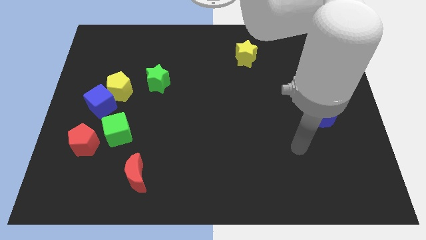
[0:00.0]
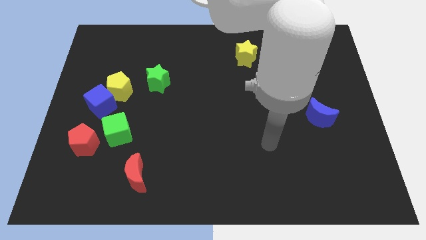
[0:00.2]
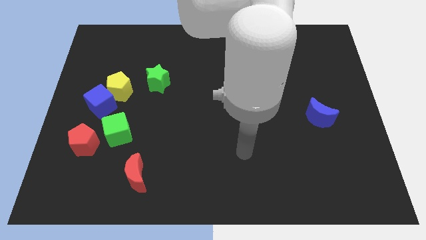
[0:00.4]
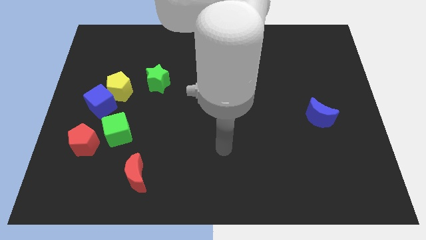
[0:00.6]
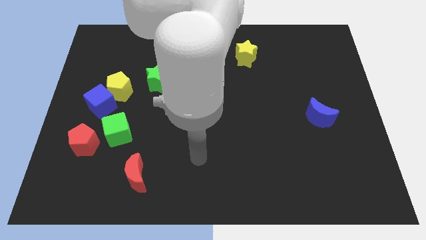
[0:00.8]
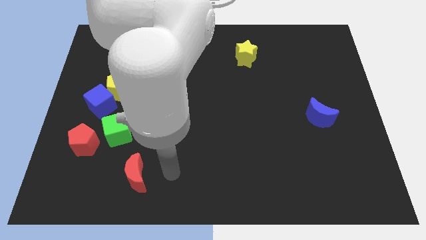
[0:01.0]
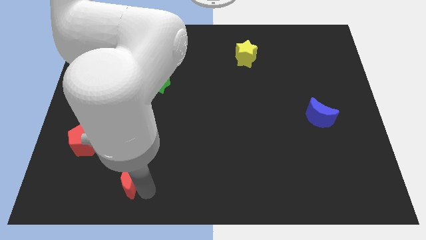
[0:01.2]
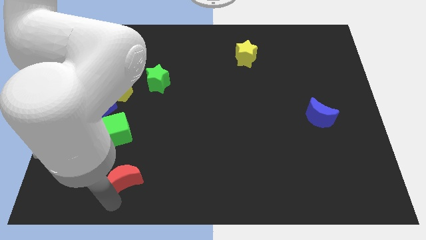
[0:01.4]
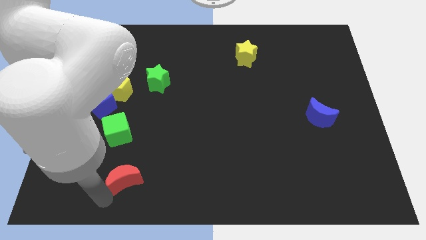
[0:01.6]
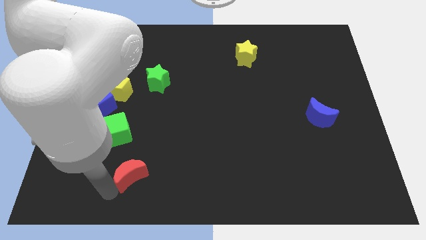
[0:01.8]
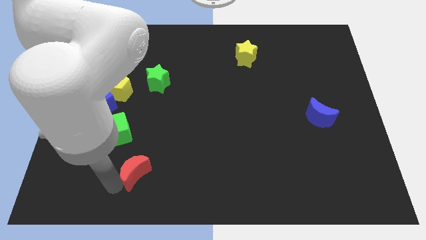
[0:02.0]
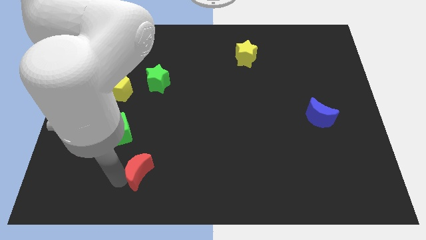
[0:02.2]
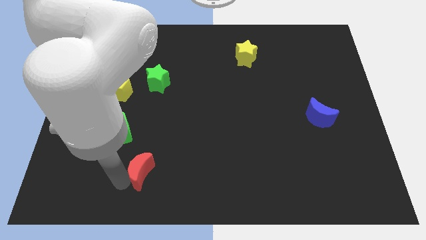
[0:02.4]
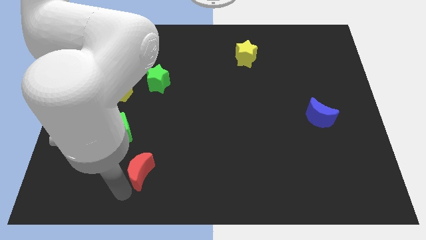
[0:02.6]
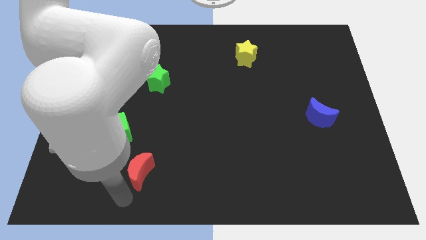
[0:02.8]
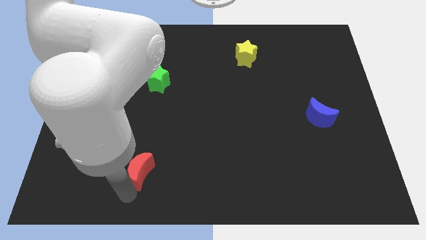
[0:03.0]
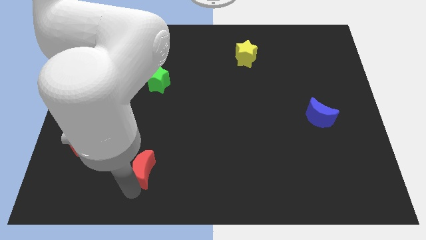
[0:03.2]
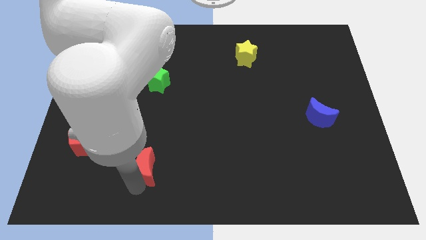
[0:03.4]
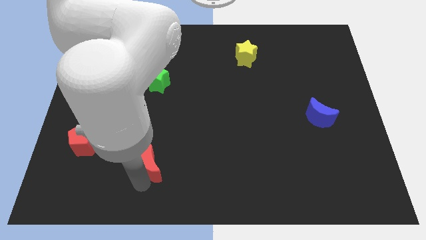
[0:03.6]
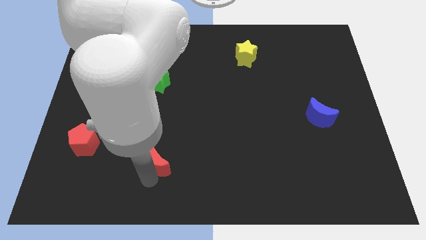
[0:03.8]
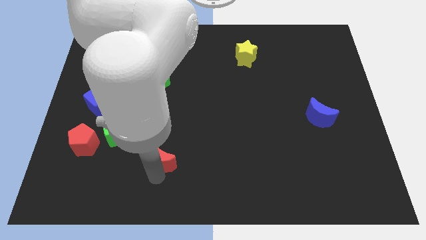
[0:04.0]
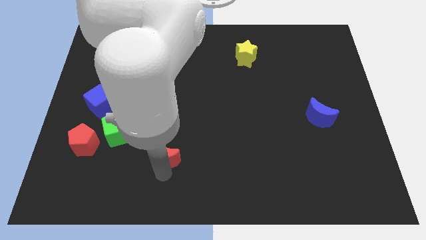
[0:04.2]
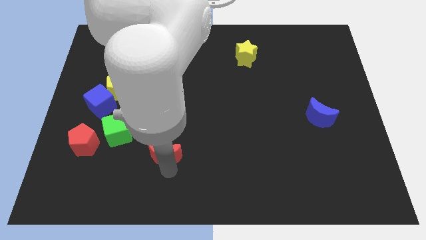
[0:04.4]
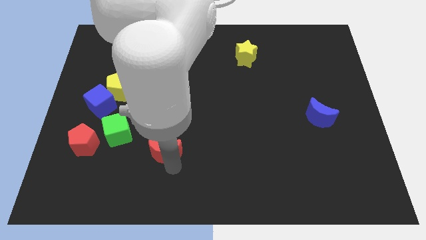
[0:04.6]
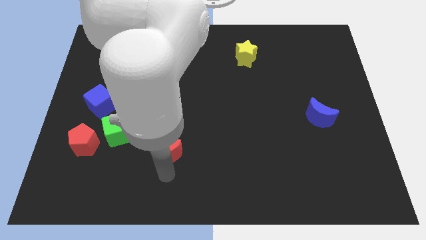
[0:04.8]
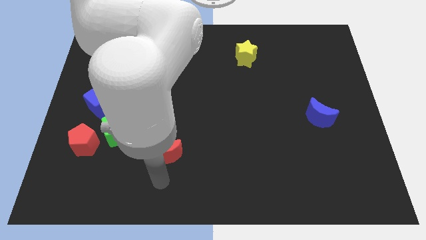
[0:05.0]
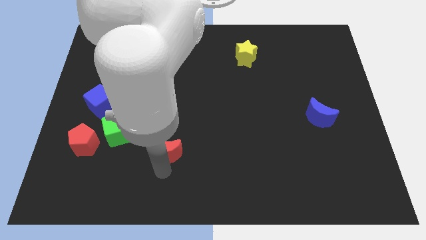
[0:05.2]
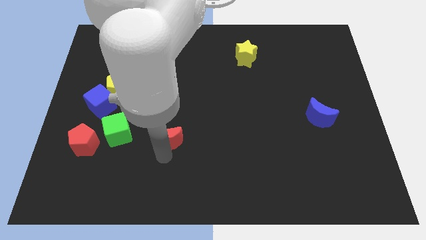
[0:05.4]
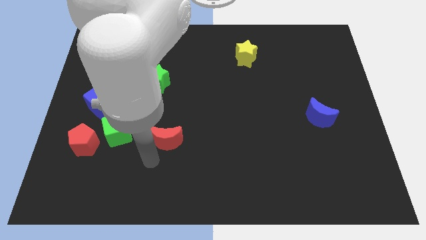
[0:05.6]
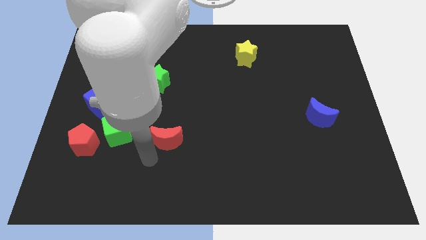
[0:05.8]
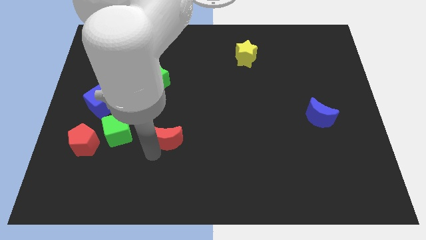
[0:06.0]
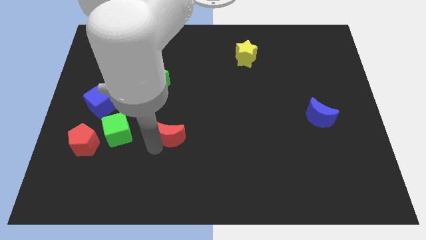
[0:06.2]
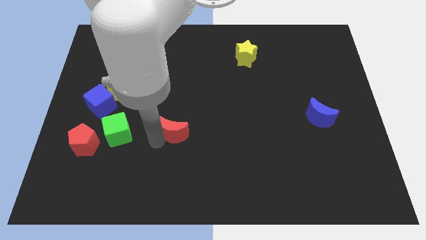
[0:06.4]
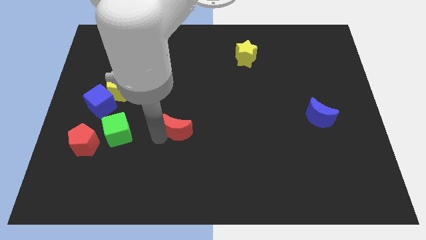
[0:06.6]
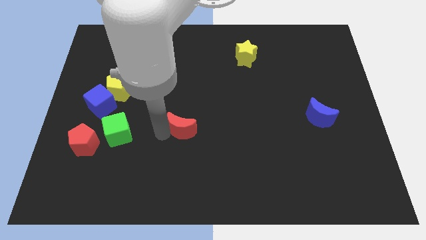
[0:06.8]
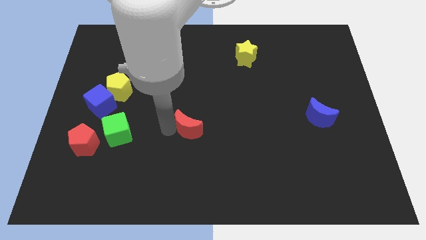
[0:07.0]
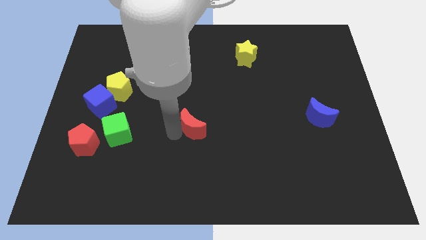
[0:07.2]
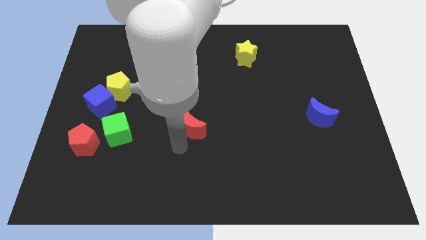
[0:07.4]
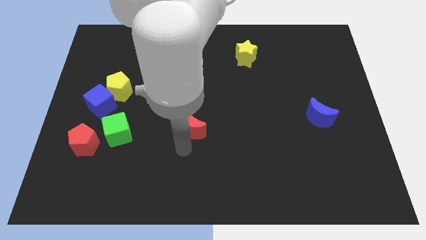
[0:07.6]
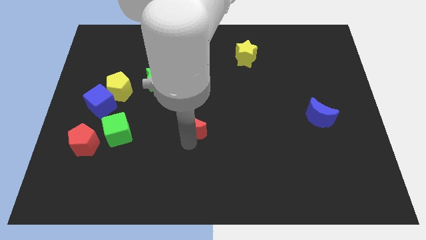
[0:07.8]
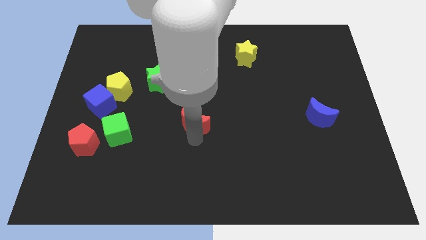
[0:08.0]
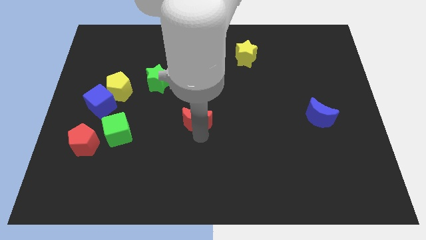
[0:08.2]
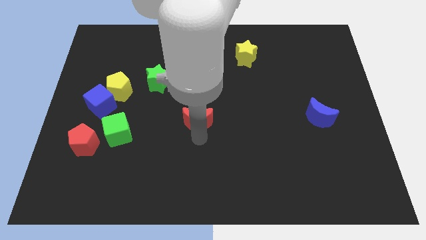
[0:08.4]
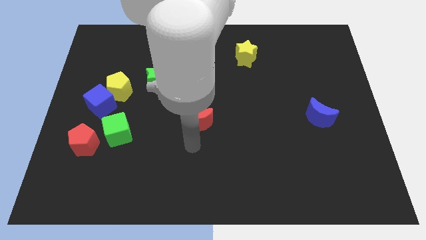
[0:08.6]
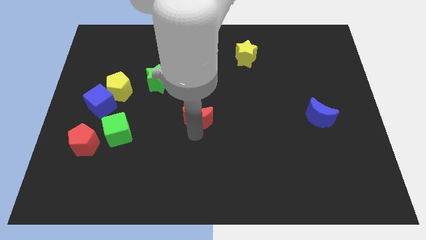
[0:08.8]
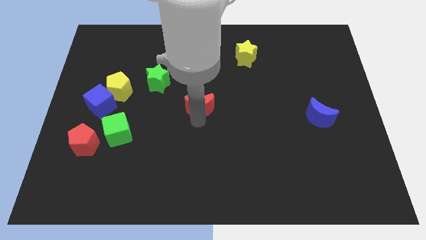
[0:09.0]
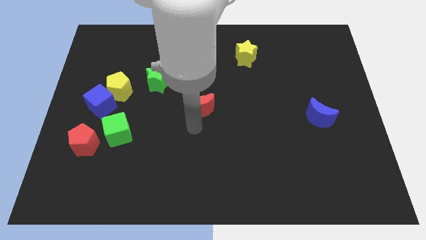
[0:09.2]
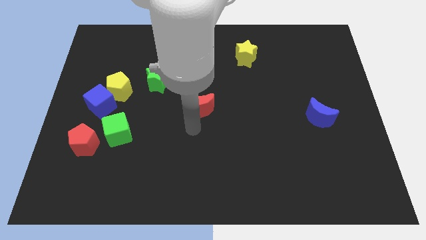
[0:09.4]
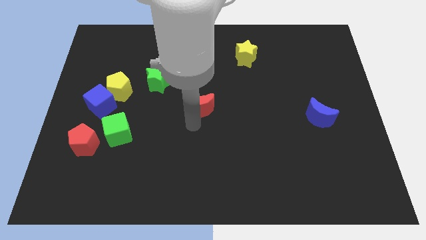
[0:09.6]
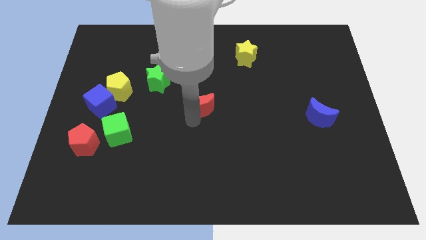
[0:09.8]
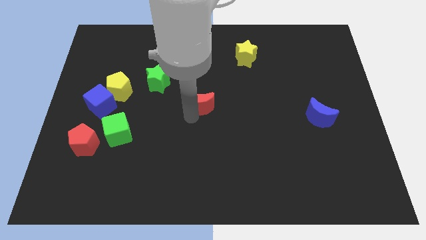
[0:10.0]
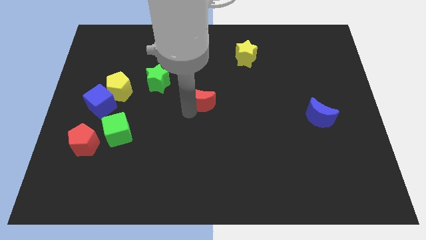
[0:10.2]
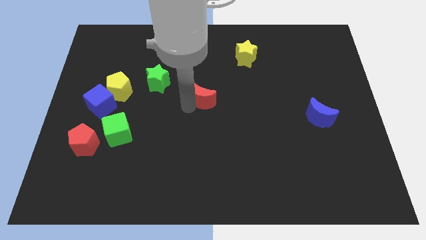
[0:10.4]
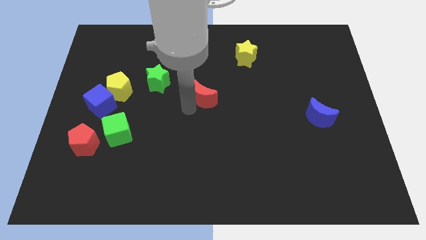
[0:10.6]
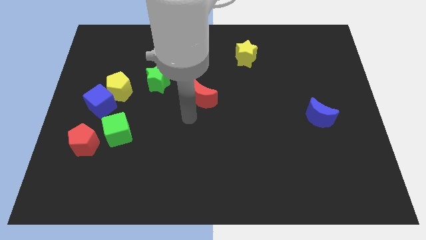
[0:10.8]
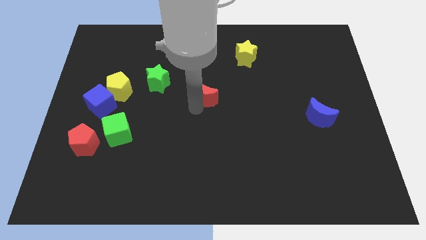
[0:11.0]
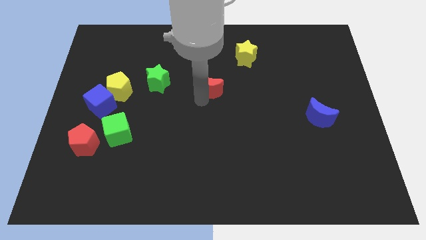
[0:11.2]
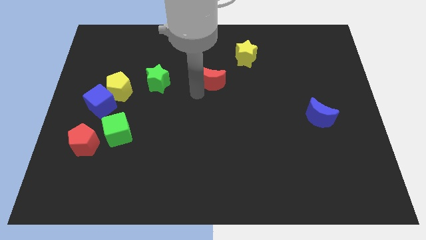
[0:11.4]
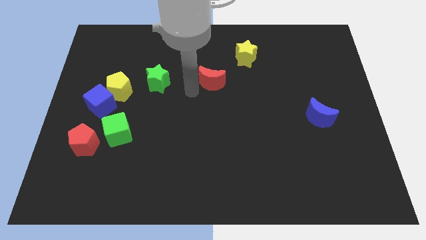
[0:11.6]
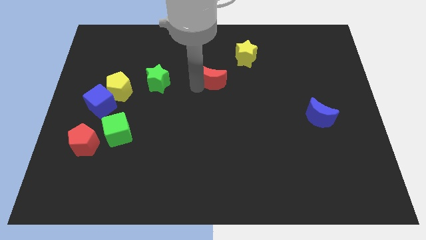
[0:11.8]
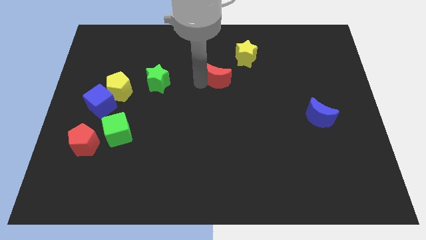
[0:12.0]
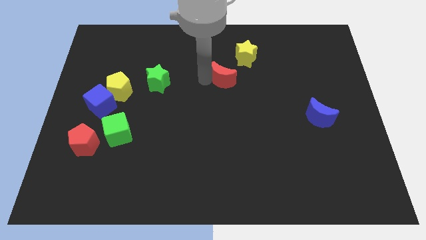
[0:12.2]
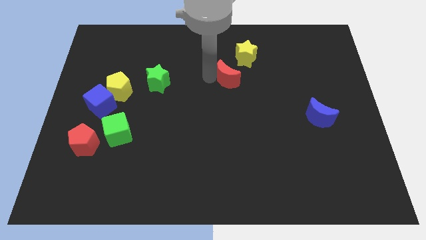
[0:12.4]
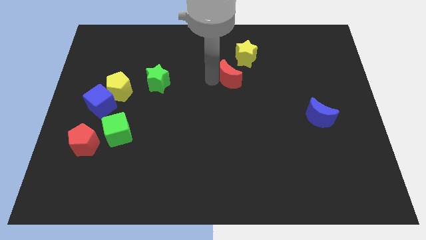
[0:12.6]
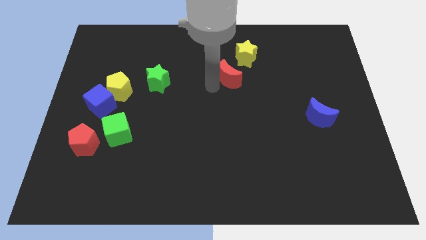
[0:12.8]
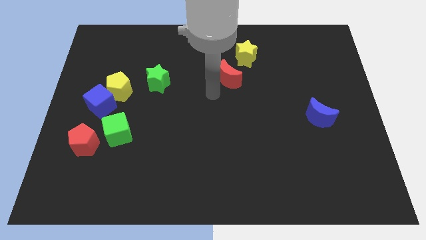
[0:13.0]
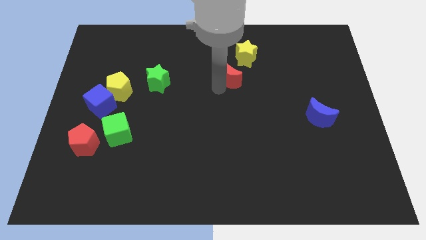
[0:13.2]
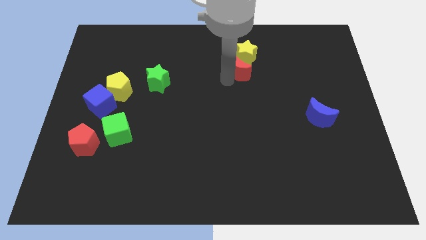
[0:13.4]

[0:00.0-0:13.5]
move the red moon close to the yellow star

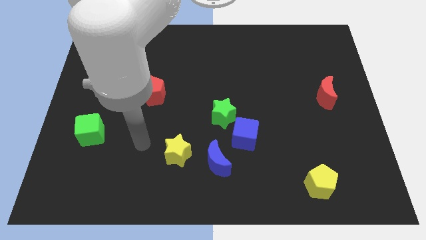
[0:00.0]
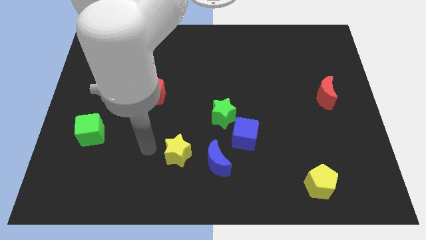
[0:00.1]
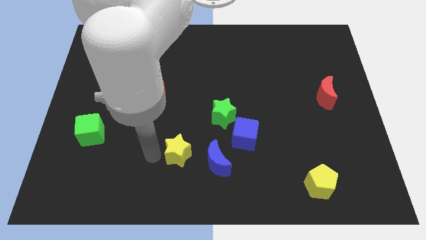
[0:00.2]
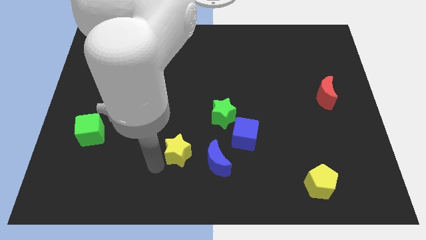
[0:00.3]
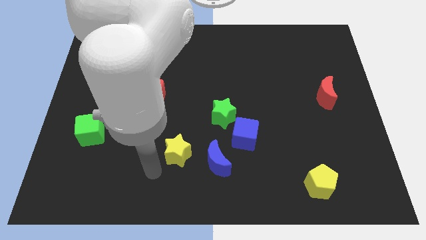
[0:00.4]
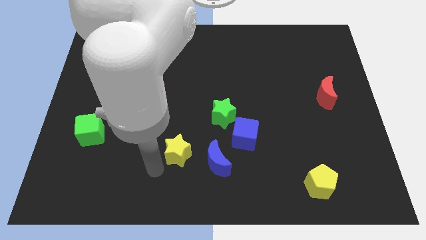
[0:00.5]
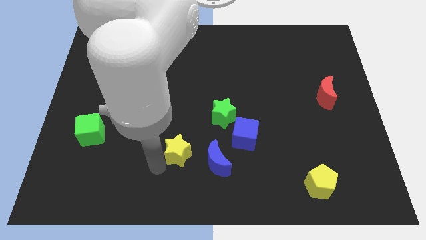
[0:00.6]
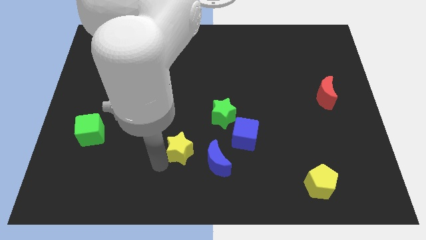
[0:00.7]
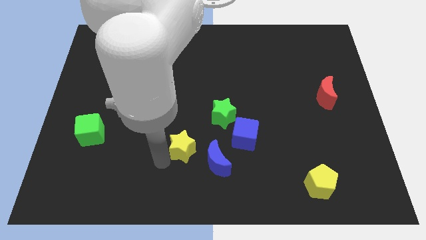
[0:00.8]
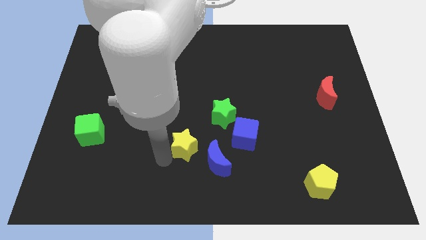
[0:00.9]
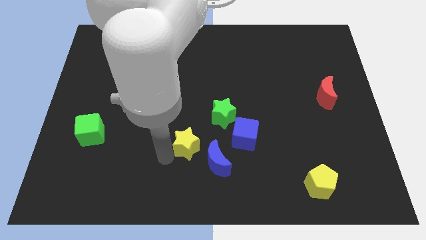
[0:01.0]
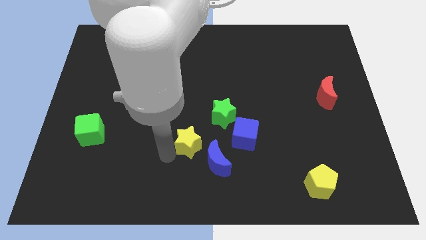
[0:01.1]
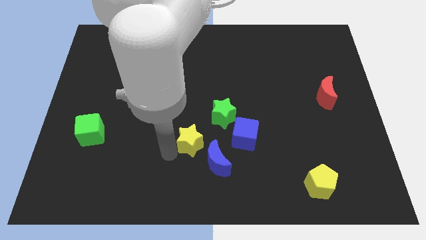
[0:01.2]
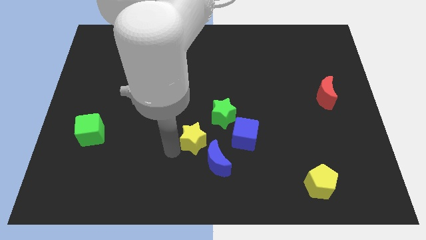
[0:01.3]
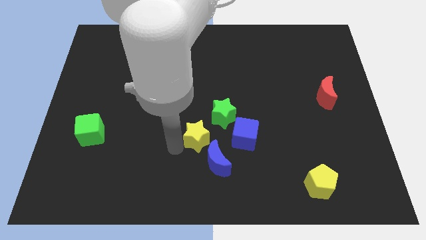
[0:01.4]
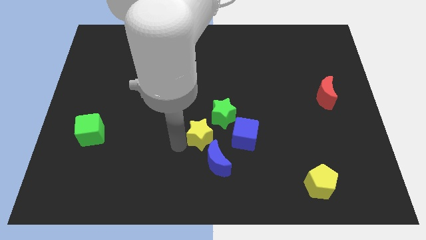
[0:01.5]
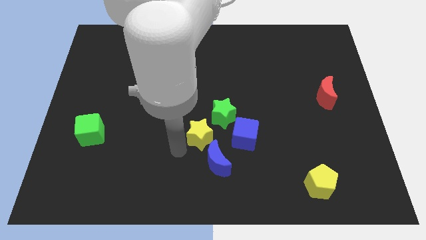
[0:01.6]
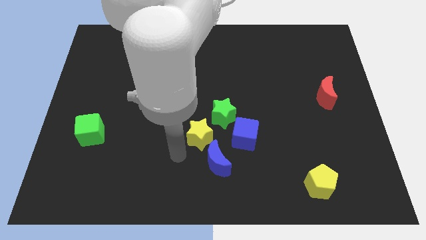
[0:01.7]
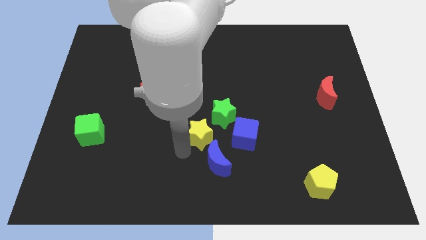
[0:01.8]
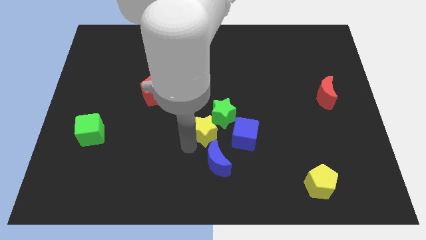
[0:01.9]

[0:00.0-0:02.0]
put the yellow star next to the green star
